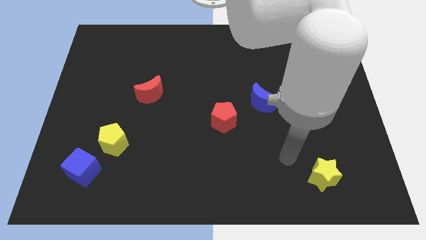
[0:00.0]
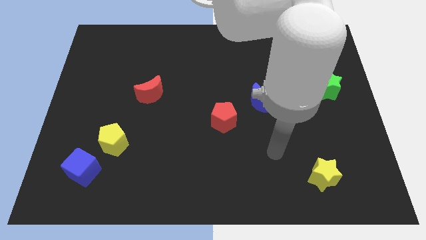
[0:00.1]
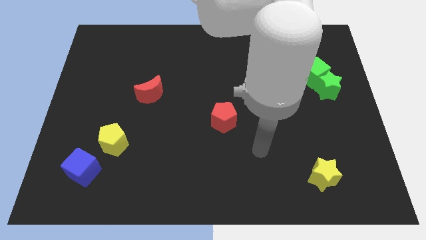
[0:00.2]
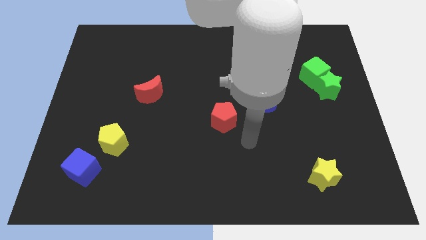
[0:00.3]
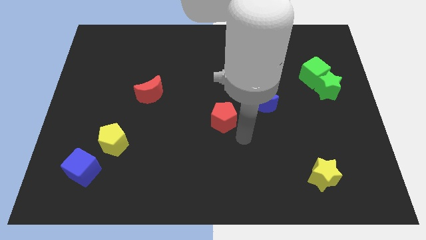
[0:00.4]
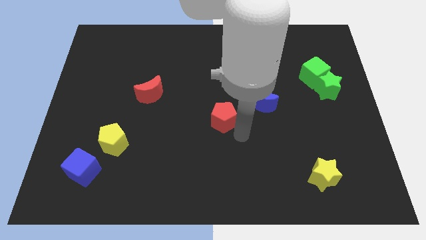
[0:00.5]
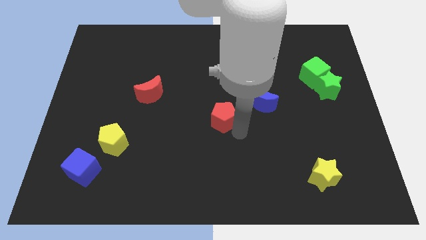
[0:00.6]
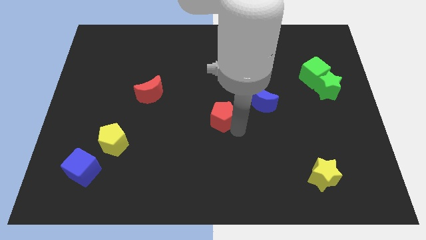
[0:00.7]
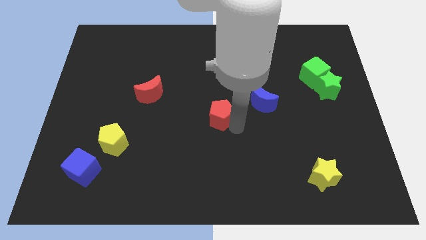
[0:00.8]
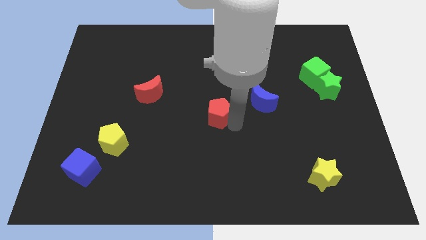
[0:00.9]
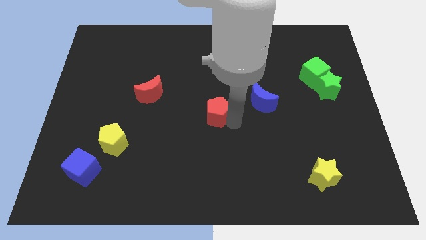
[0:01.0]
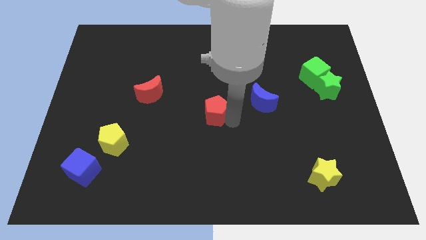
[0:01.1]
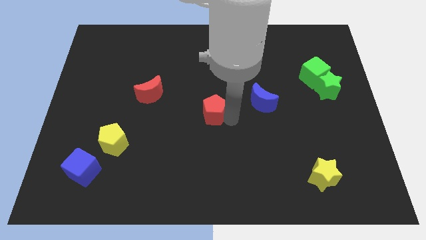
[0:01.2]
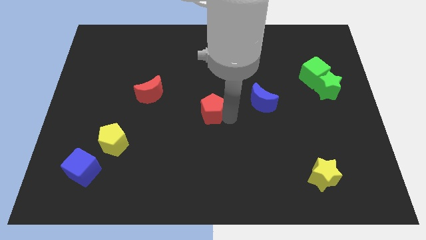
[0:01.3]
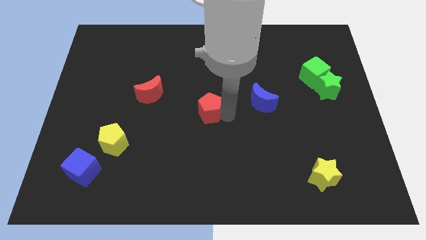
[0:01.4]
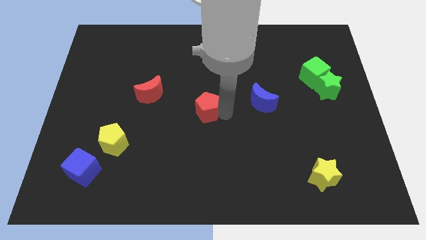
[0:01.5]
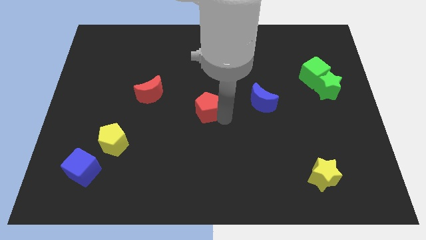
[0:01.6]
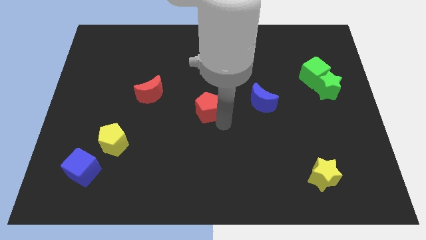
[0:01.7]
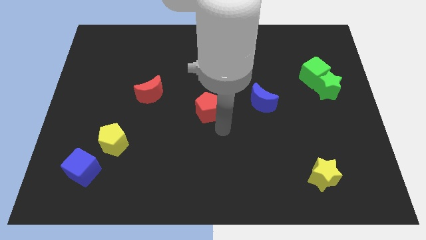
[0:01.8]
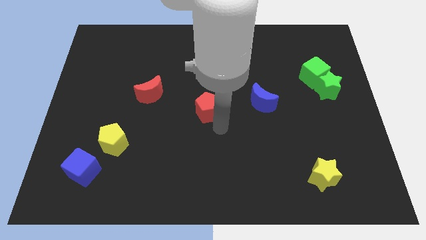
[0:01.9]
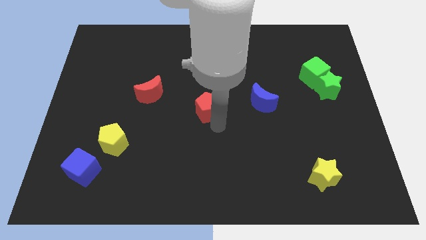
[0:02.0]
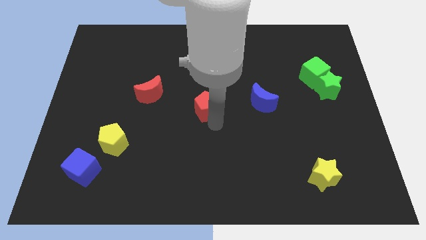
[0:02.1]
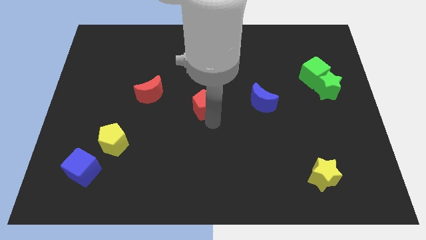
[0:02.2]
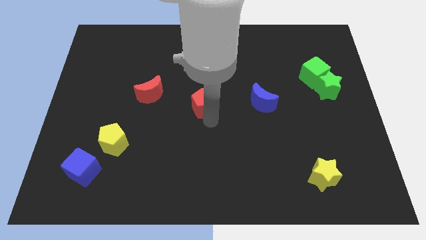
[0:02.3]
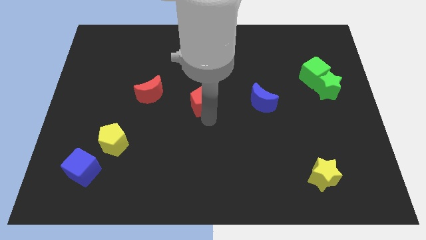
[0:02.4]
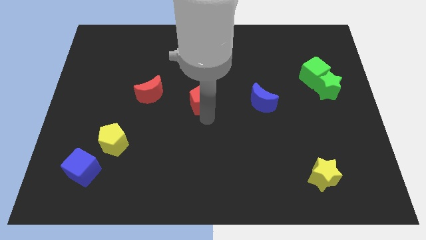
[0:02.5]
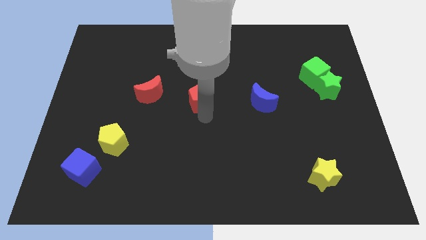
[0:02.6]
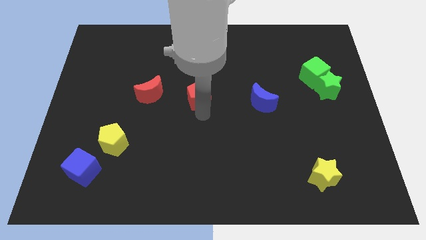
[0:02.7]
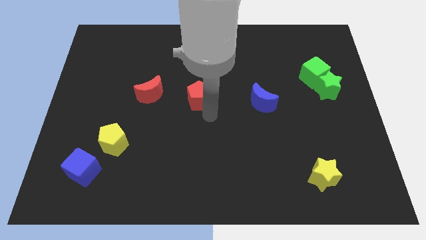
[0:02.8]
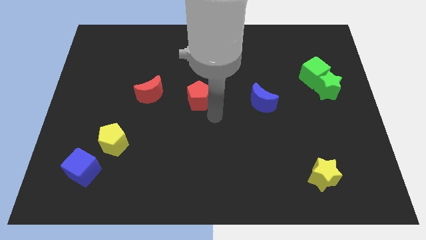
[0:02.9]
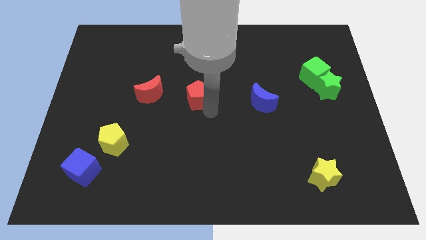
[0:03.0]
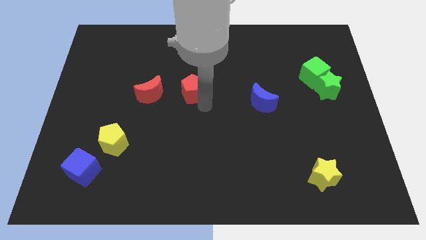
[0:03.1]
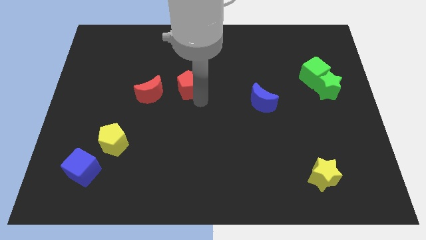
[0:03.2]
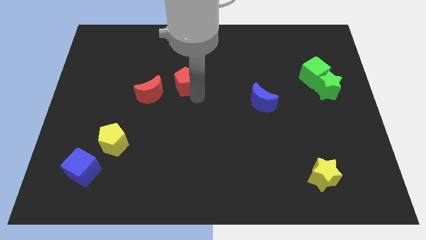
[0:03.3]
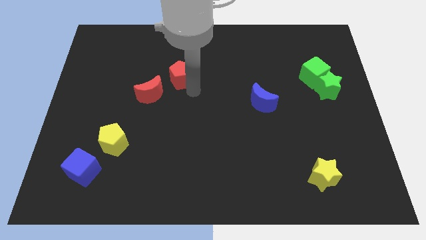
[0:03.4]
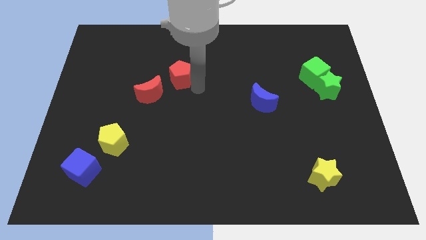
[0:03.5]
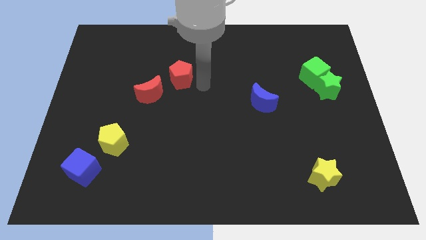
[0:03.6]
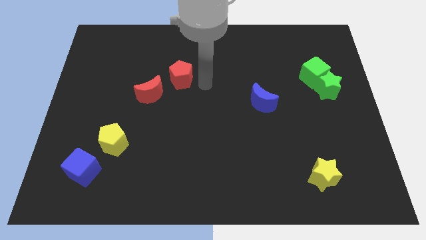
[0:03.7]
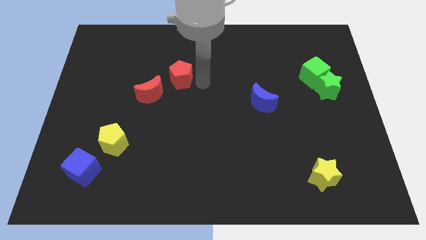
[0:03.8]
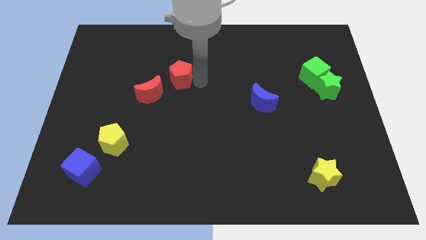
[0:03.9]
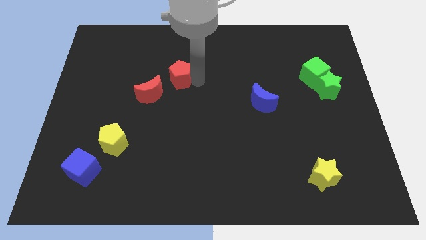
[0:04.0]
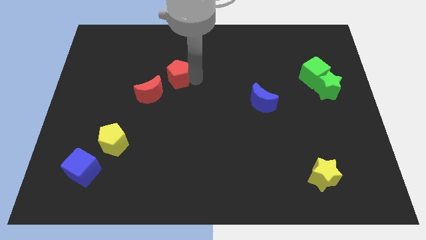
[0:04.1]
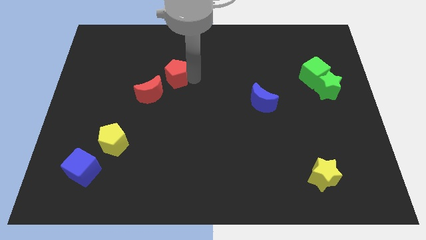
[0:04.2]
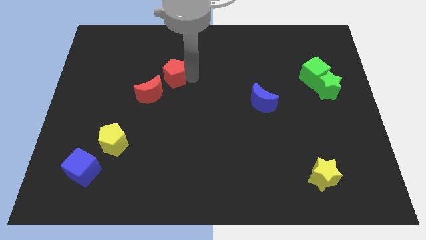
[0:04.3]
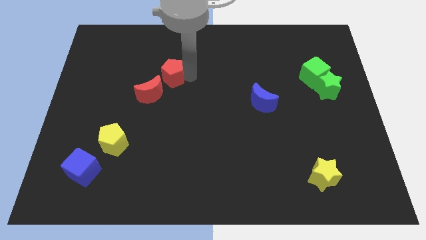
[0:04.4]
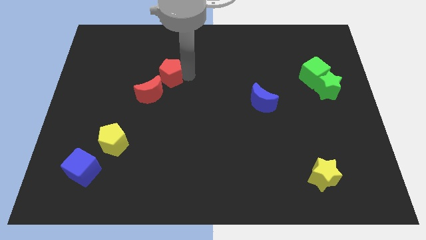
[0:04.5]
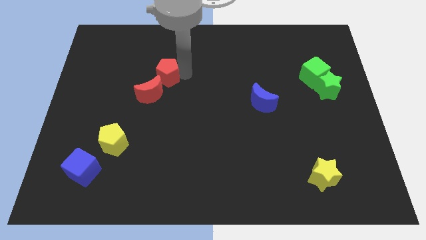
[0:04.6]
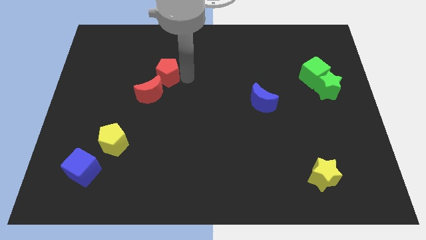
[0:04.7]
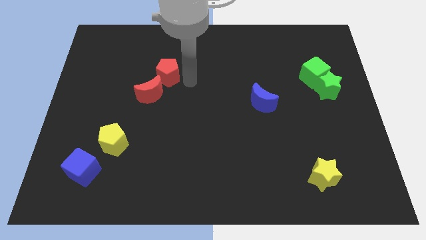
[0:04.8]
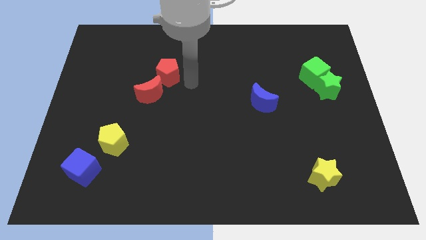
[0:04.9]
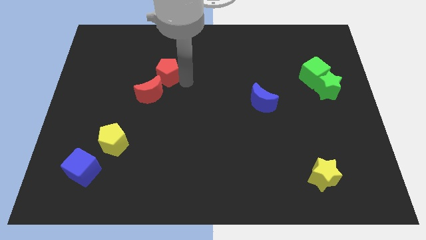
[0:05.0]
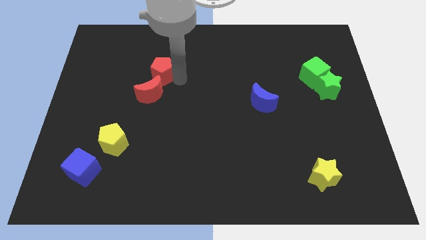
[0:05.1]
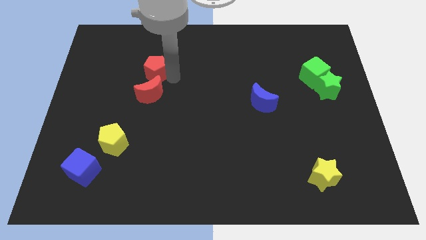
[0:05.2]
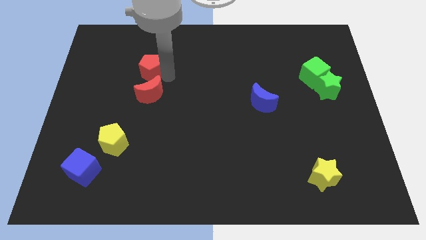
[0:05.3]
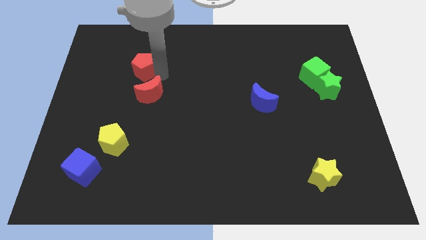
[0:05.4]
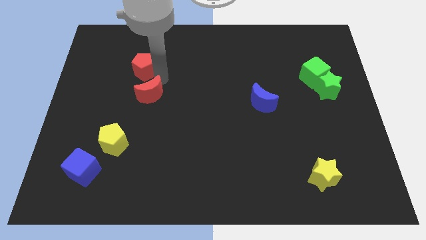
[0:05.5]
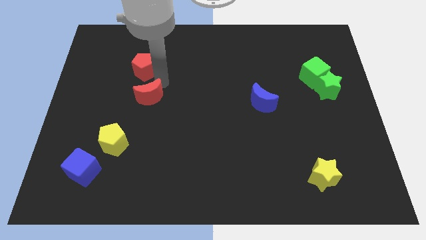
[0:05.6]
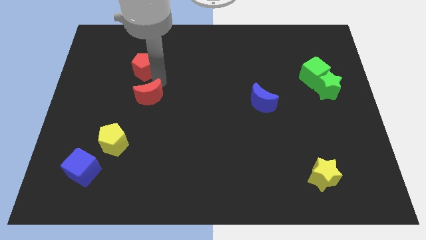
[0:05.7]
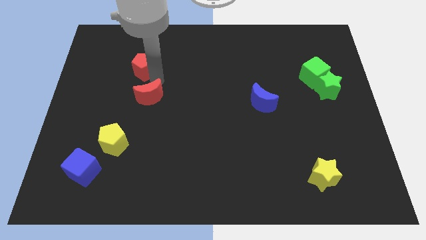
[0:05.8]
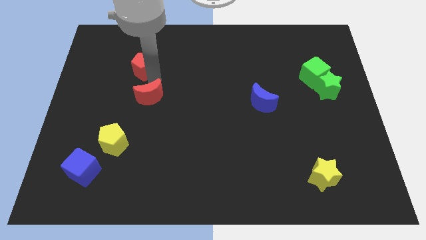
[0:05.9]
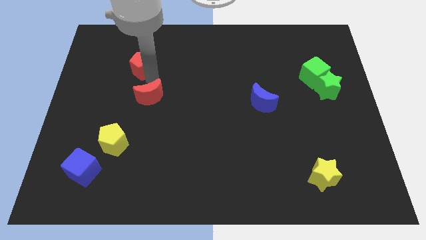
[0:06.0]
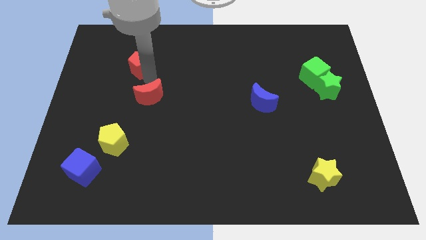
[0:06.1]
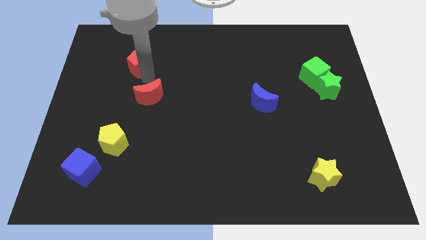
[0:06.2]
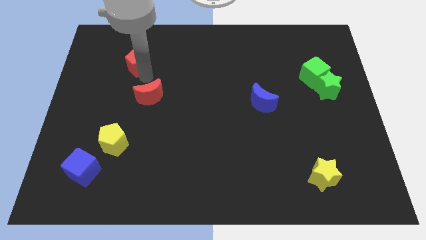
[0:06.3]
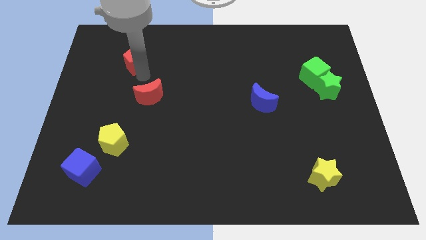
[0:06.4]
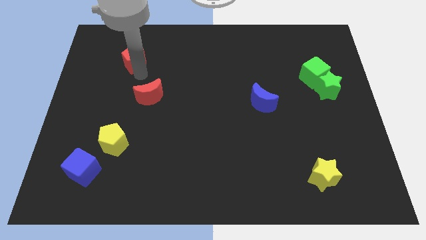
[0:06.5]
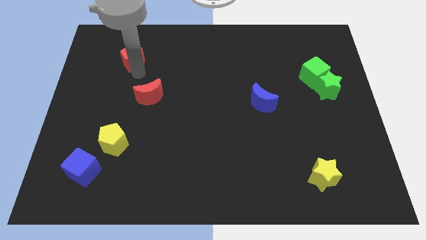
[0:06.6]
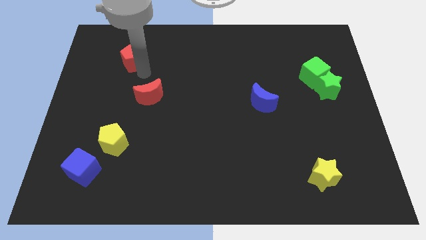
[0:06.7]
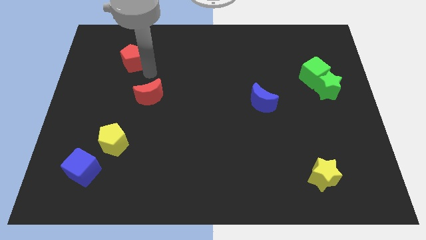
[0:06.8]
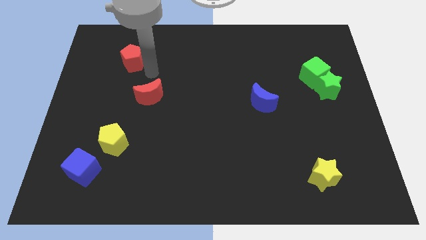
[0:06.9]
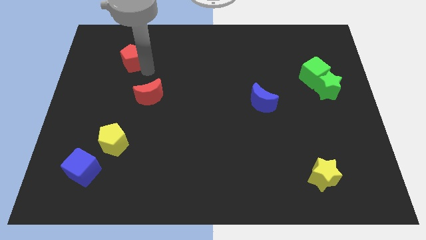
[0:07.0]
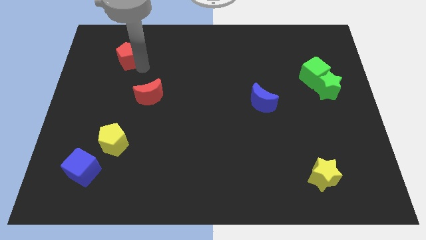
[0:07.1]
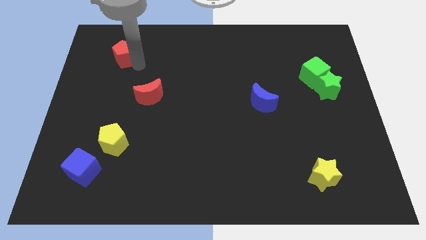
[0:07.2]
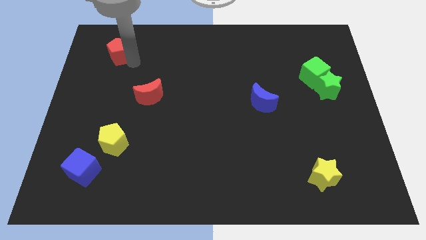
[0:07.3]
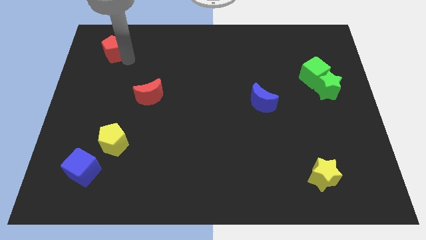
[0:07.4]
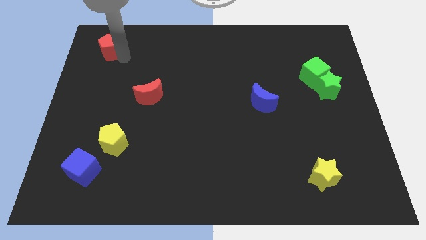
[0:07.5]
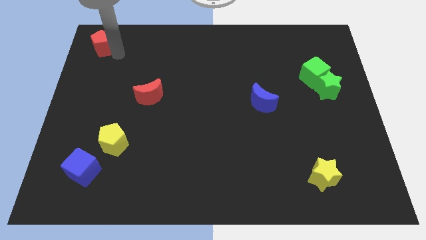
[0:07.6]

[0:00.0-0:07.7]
push the red pentagon to the top left corner
